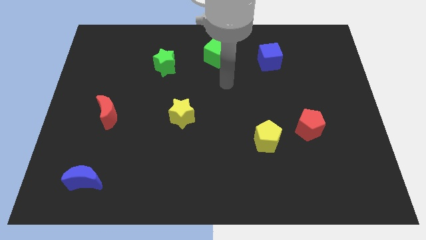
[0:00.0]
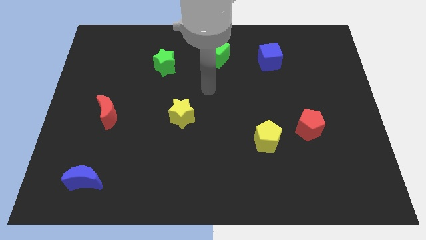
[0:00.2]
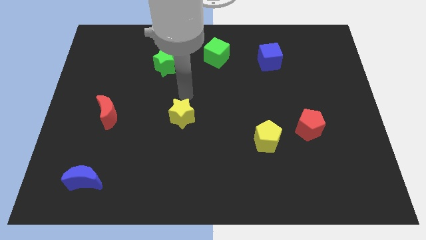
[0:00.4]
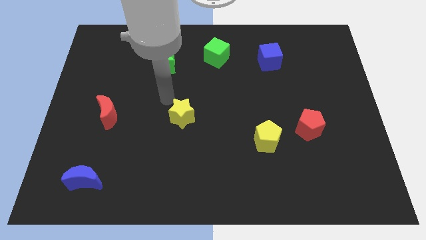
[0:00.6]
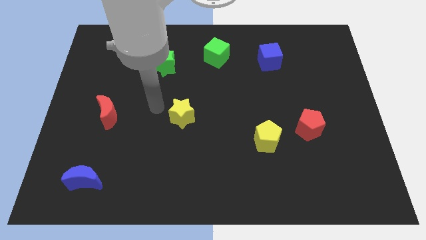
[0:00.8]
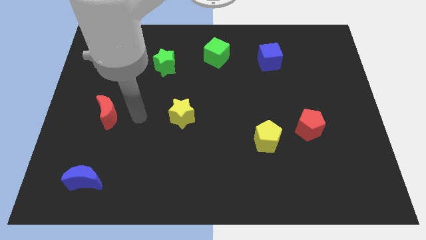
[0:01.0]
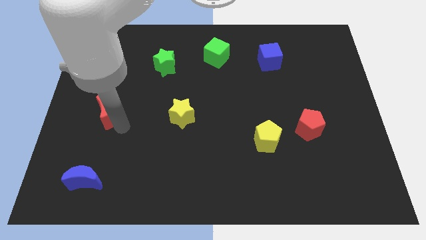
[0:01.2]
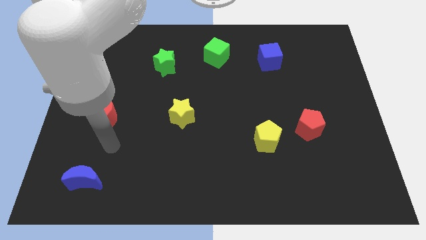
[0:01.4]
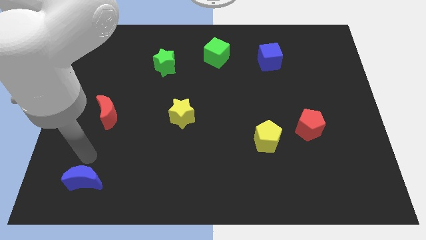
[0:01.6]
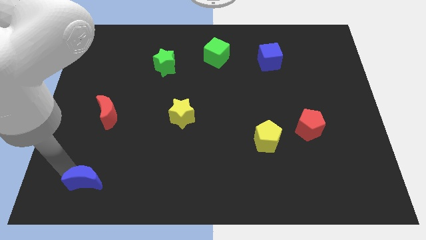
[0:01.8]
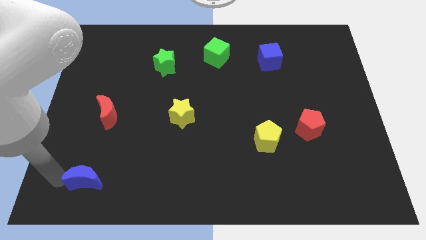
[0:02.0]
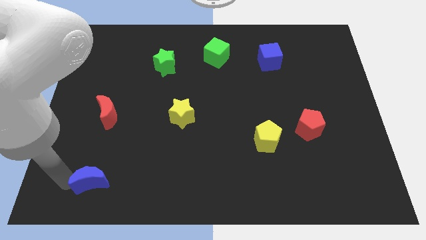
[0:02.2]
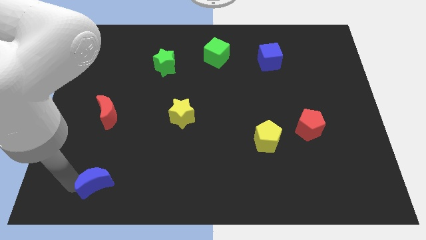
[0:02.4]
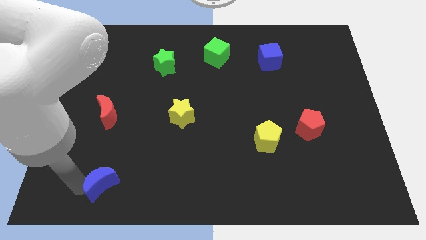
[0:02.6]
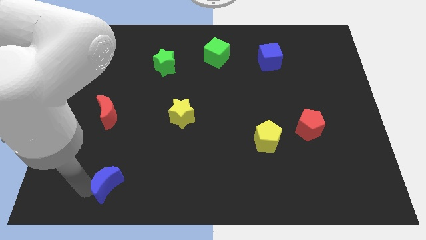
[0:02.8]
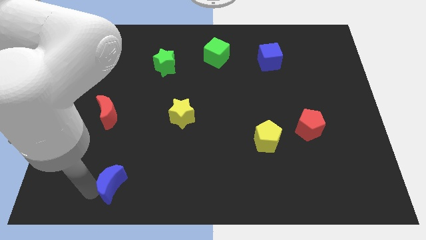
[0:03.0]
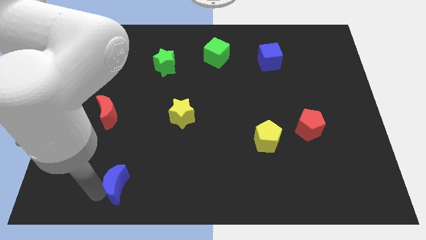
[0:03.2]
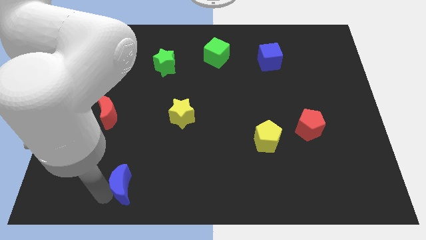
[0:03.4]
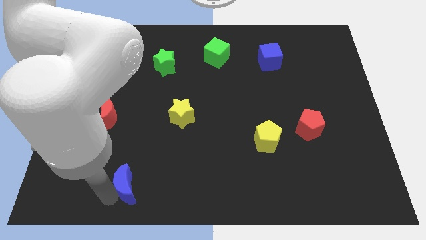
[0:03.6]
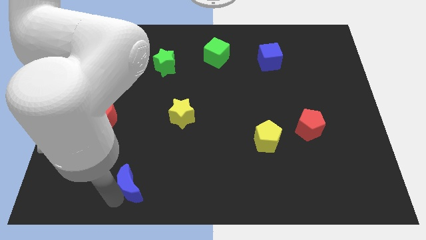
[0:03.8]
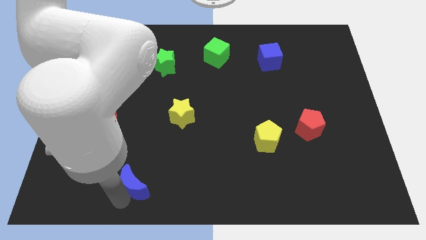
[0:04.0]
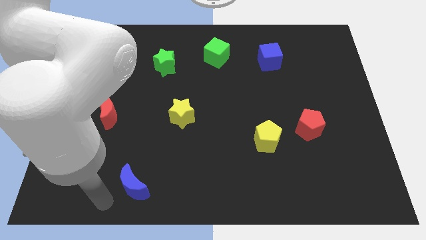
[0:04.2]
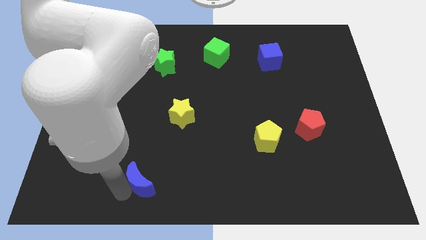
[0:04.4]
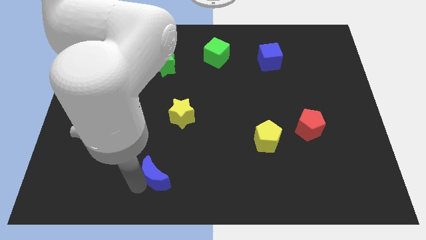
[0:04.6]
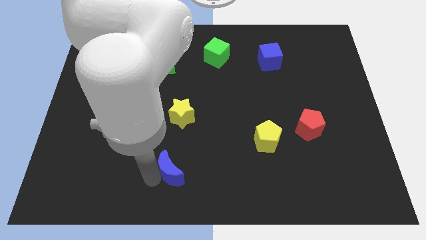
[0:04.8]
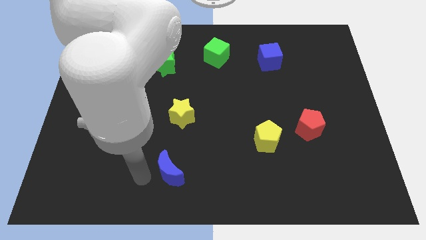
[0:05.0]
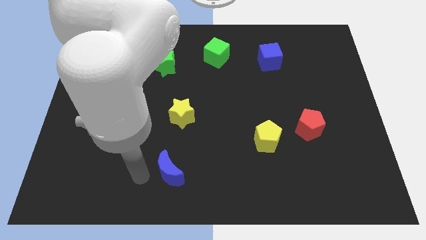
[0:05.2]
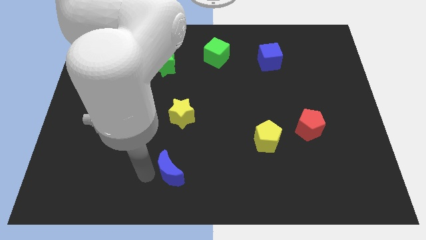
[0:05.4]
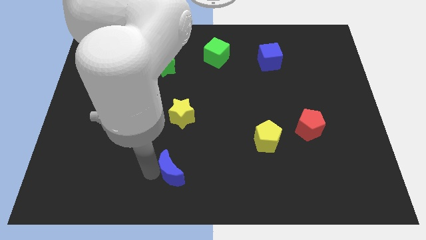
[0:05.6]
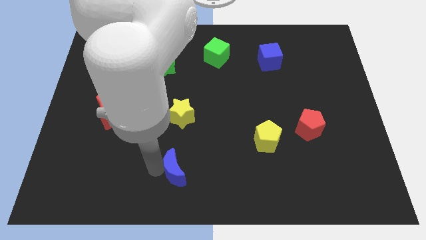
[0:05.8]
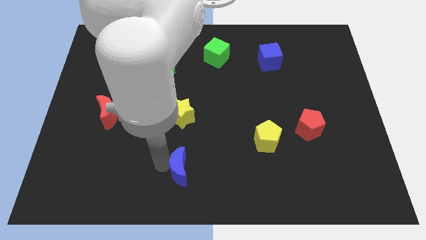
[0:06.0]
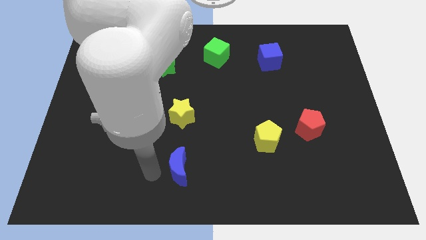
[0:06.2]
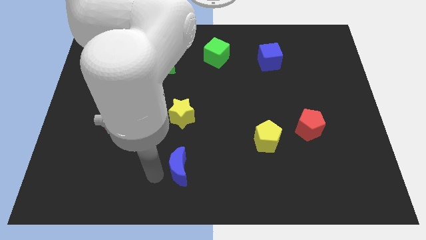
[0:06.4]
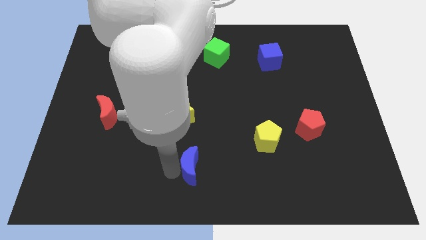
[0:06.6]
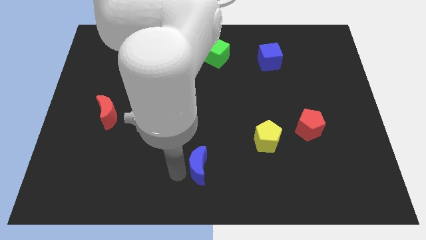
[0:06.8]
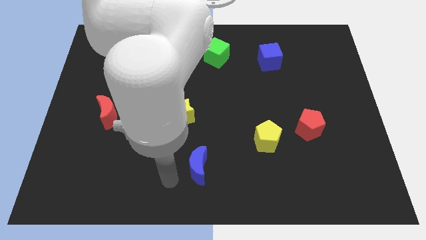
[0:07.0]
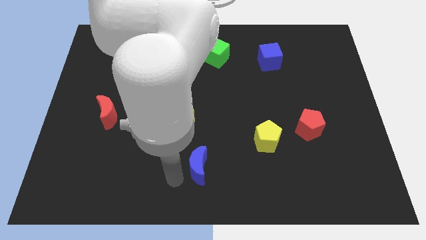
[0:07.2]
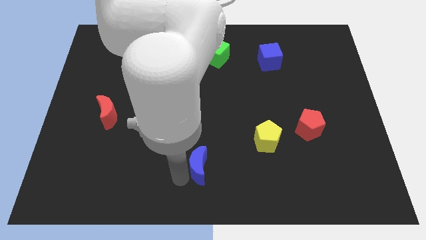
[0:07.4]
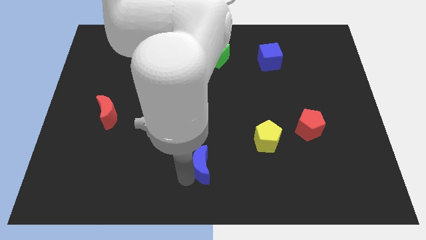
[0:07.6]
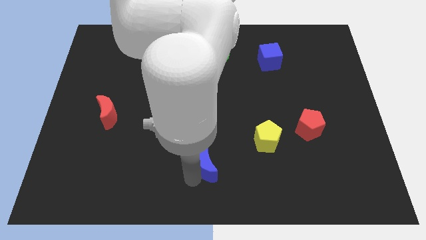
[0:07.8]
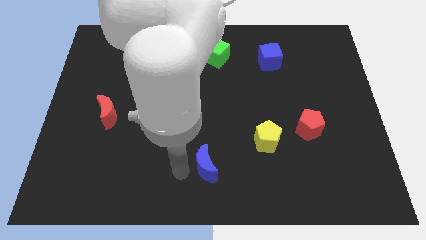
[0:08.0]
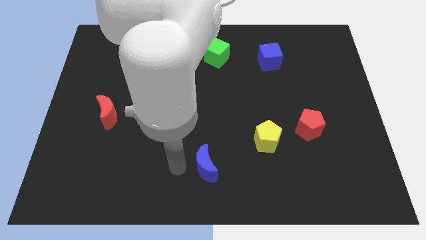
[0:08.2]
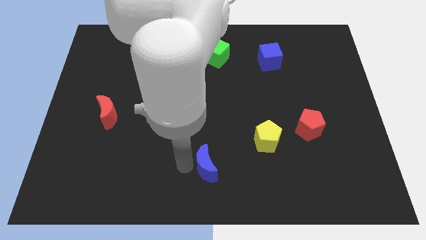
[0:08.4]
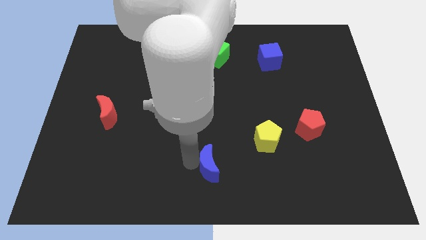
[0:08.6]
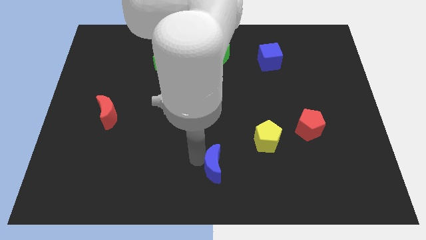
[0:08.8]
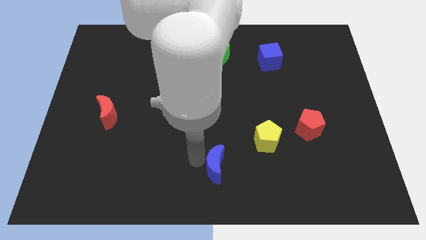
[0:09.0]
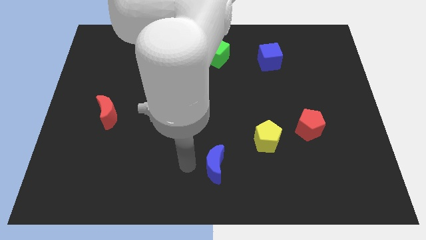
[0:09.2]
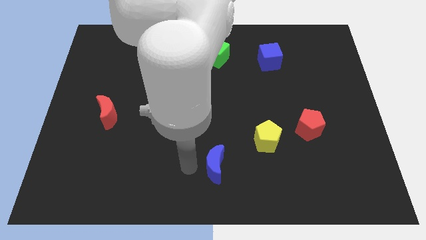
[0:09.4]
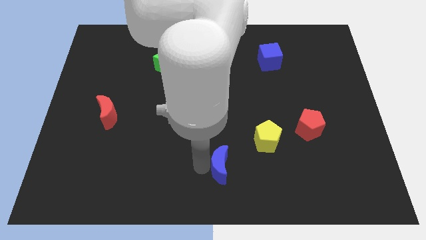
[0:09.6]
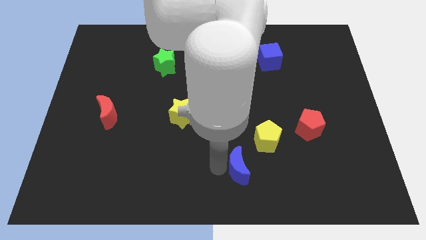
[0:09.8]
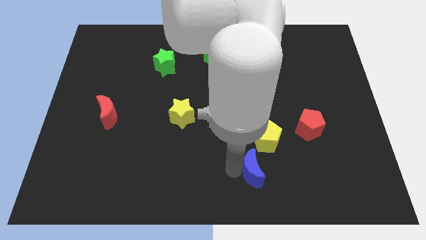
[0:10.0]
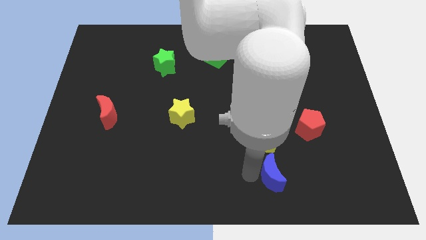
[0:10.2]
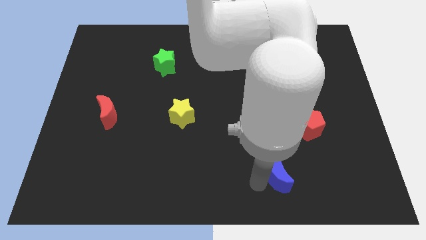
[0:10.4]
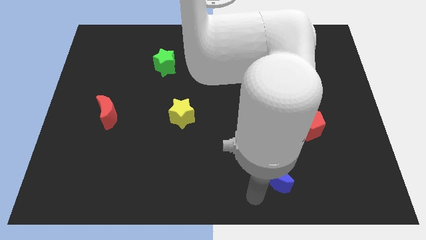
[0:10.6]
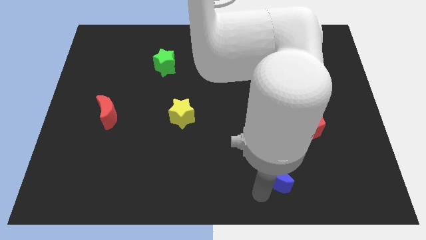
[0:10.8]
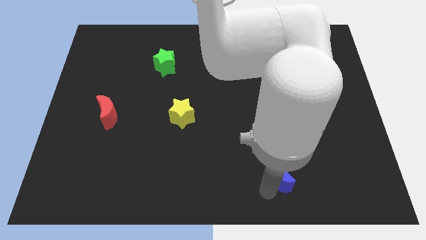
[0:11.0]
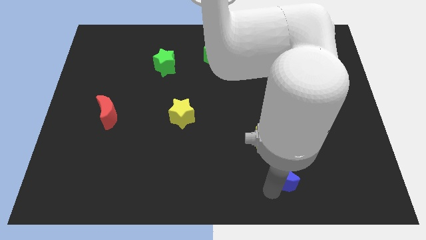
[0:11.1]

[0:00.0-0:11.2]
push the blue moon diagonally down and to the right of the yellow pentagon

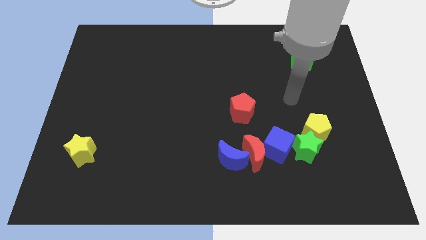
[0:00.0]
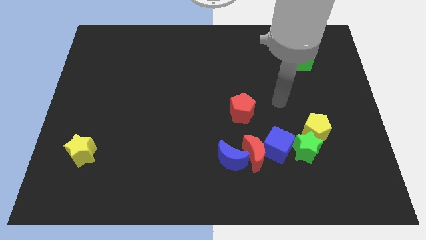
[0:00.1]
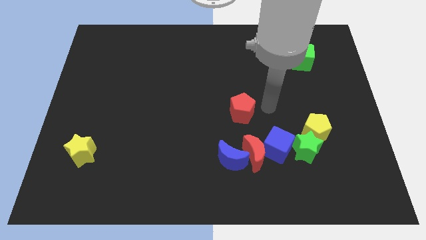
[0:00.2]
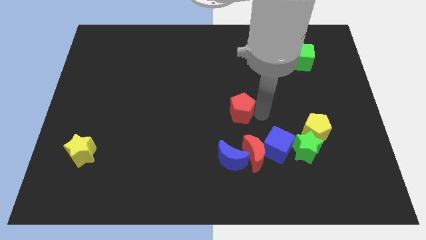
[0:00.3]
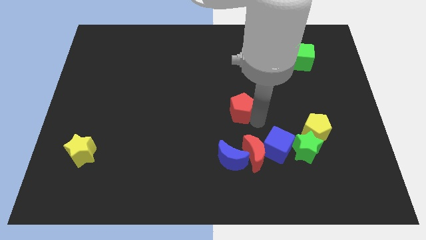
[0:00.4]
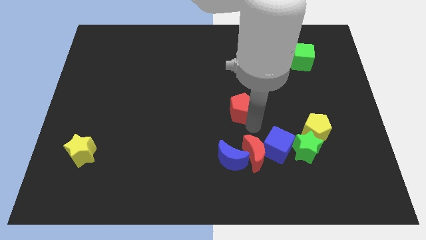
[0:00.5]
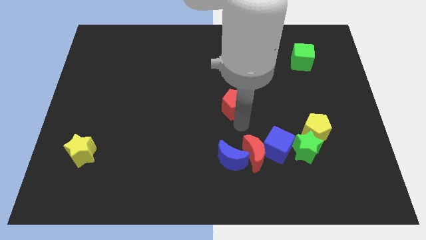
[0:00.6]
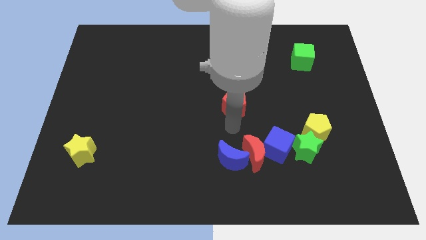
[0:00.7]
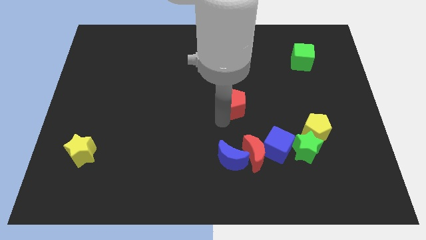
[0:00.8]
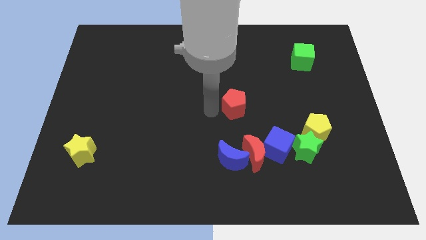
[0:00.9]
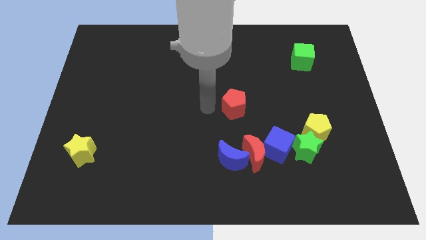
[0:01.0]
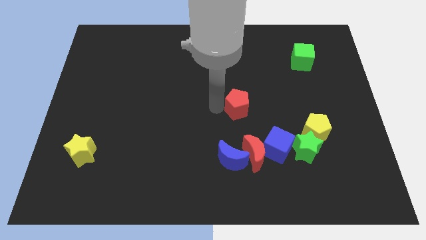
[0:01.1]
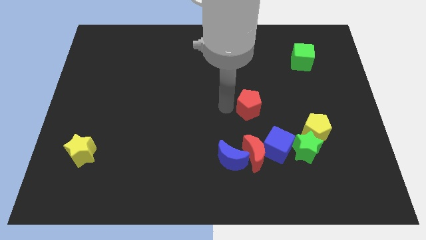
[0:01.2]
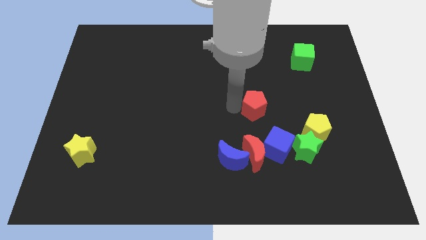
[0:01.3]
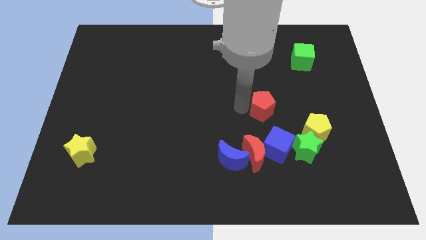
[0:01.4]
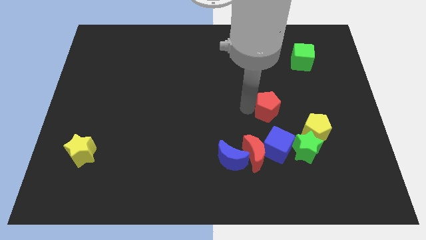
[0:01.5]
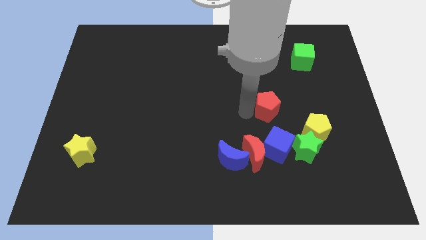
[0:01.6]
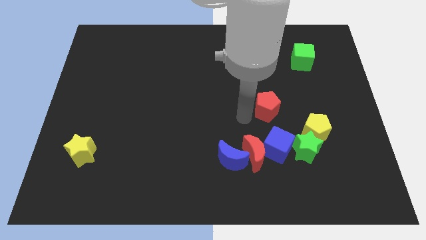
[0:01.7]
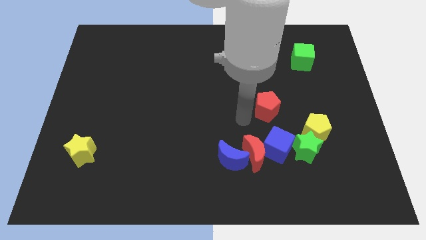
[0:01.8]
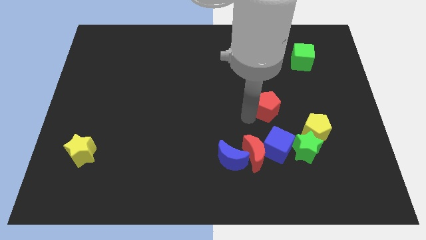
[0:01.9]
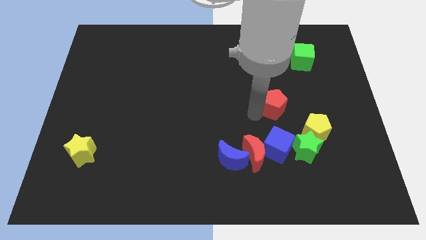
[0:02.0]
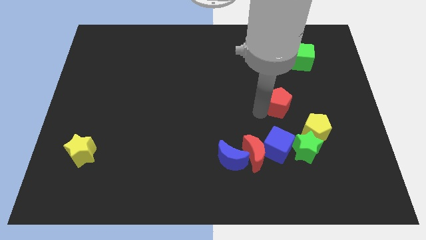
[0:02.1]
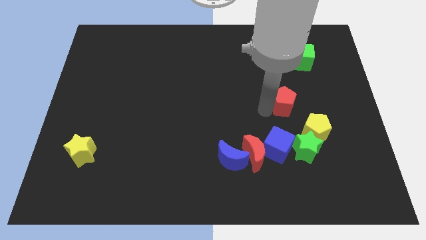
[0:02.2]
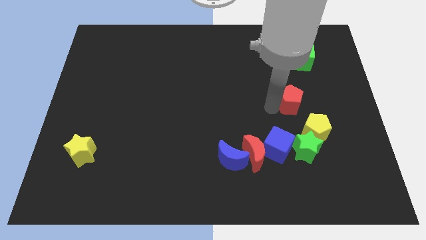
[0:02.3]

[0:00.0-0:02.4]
slide the red pentagon above the yellow pentagon
